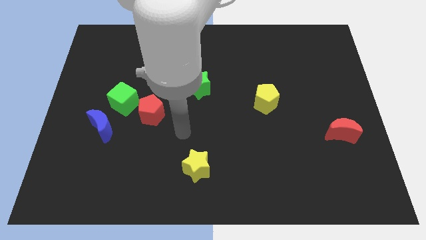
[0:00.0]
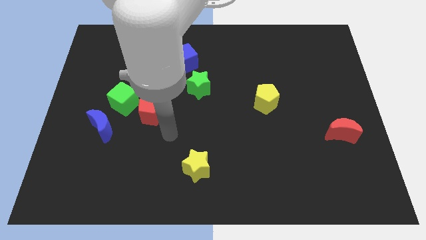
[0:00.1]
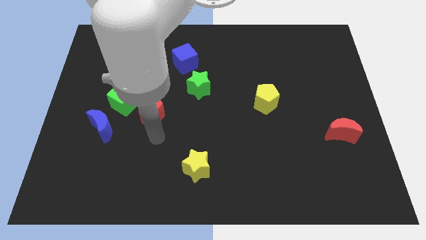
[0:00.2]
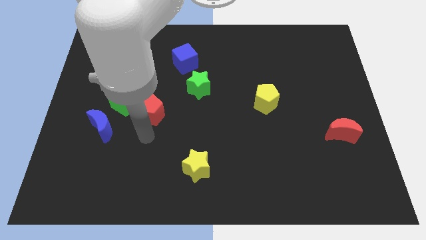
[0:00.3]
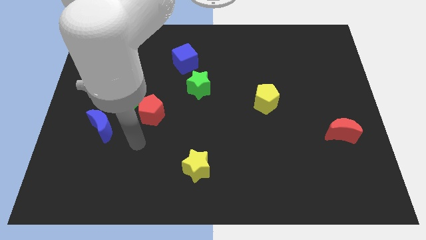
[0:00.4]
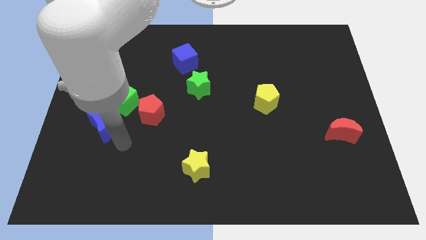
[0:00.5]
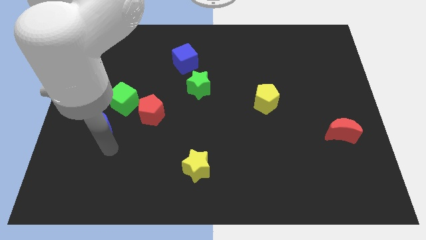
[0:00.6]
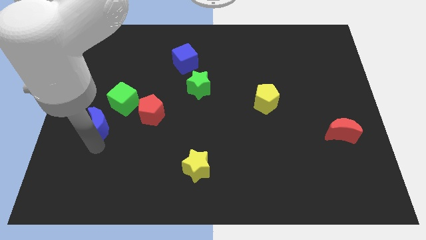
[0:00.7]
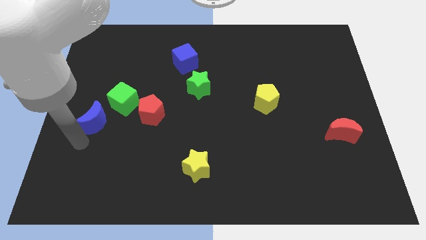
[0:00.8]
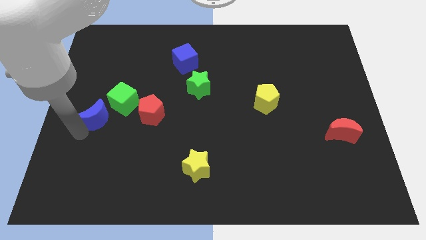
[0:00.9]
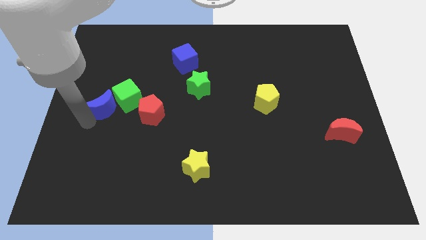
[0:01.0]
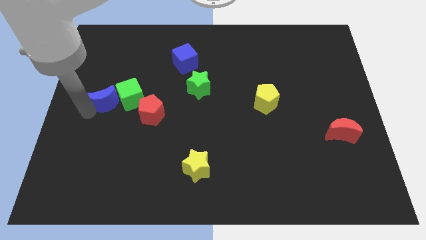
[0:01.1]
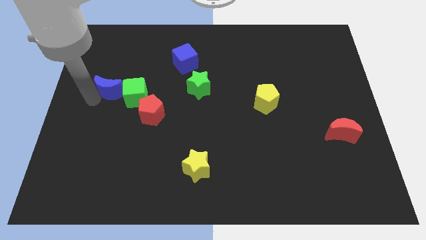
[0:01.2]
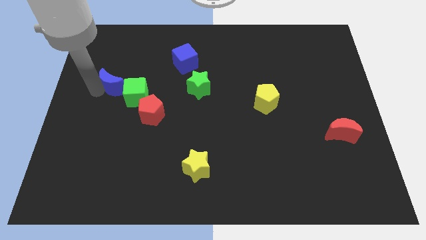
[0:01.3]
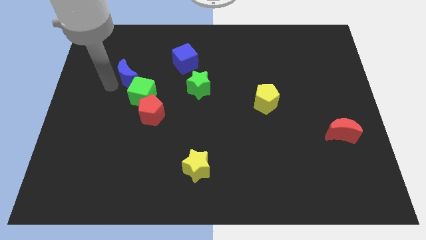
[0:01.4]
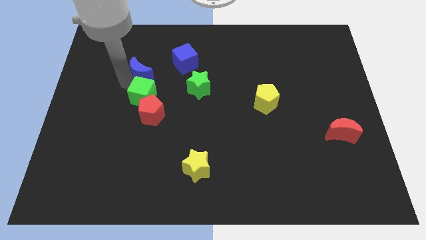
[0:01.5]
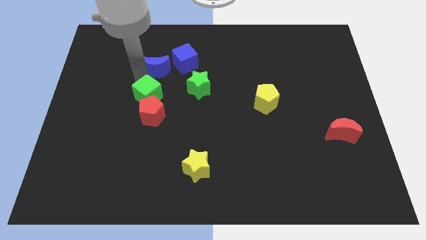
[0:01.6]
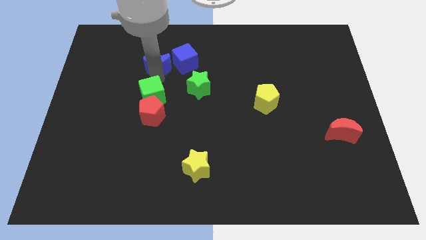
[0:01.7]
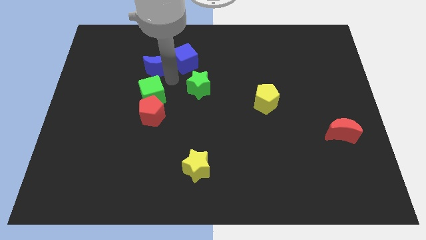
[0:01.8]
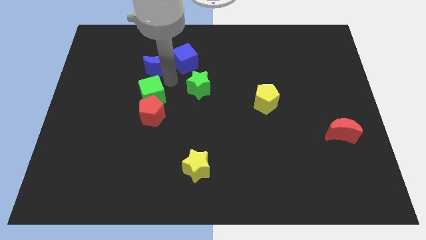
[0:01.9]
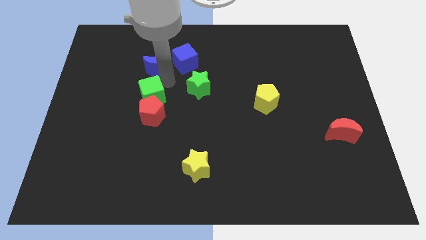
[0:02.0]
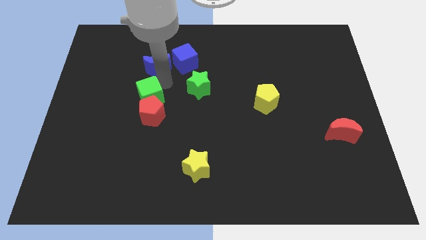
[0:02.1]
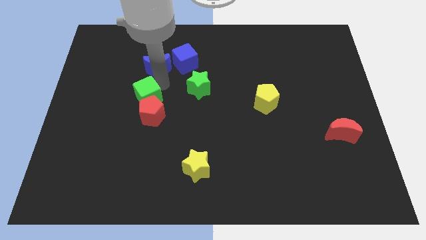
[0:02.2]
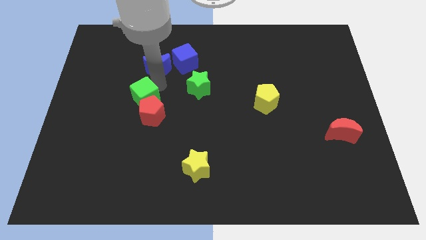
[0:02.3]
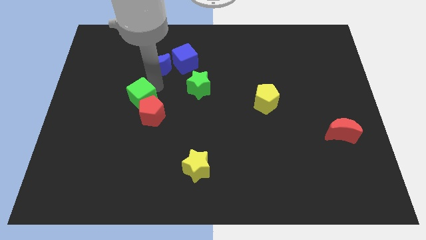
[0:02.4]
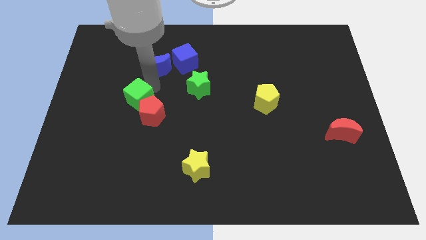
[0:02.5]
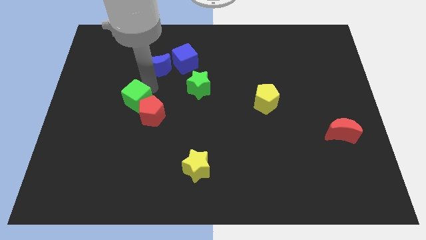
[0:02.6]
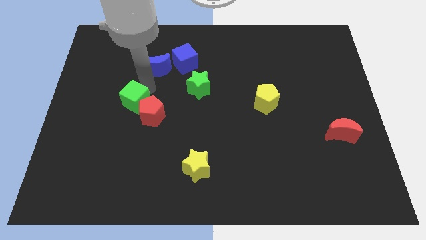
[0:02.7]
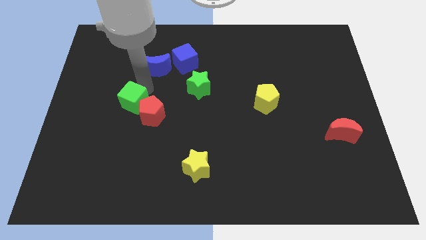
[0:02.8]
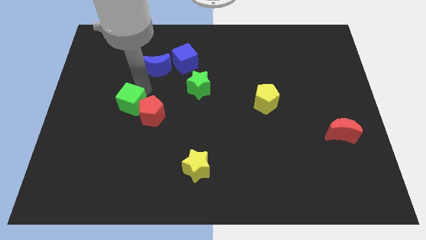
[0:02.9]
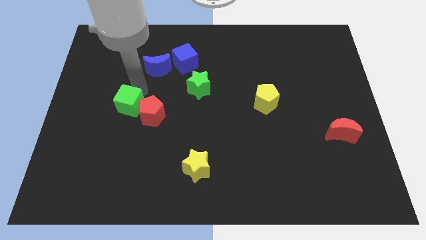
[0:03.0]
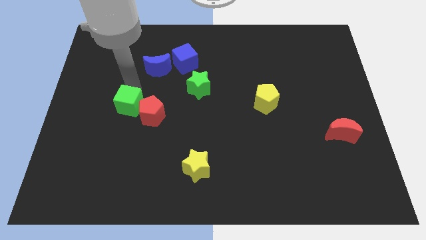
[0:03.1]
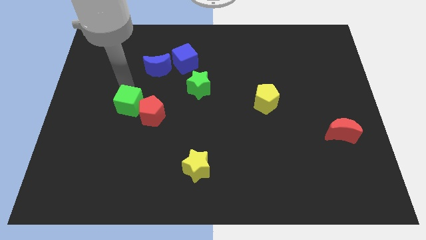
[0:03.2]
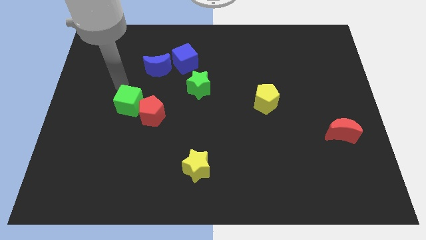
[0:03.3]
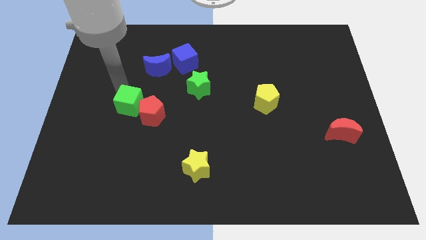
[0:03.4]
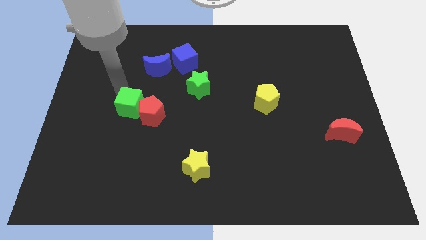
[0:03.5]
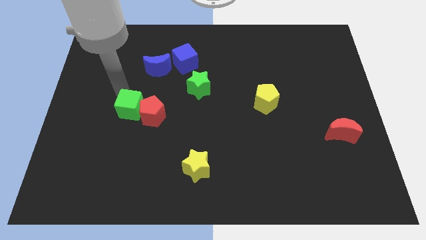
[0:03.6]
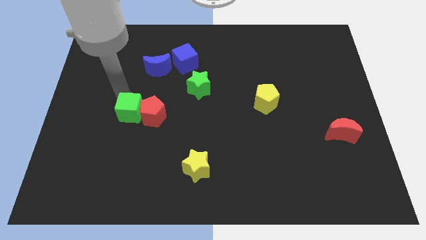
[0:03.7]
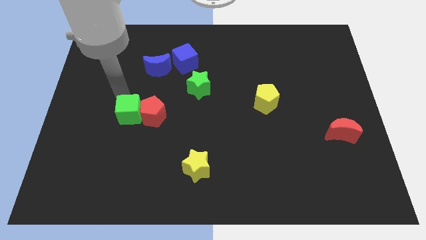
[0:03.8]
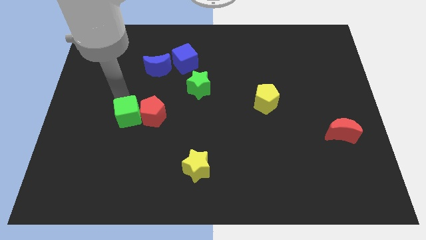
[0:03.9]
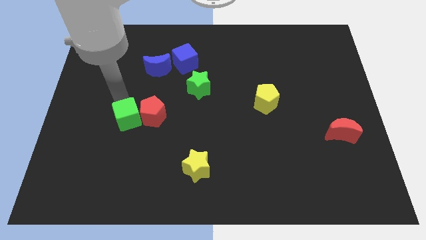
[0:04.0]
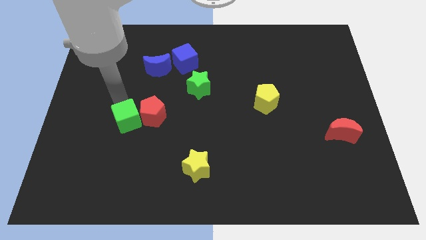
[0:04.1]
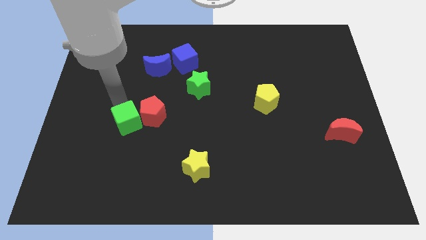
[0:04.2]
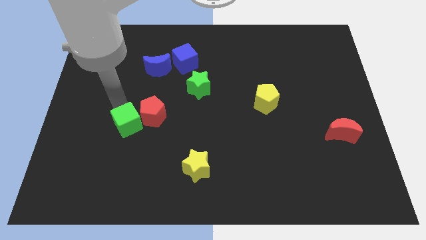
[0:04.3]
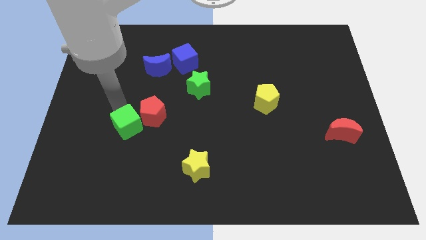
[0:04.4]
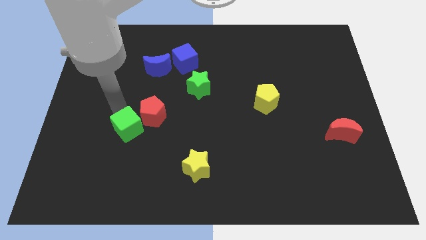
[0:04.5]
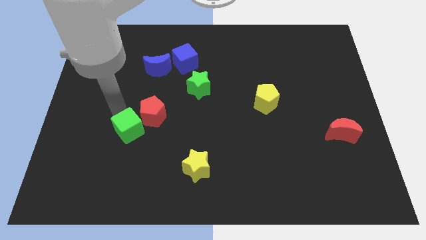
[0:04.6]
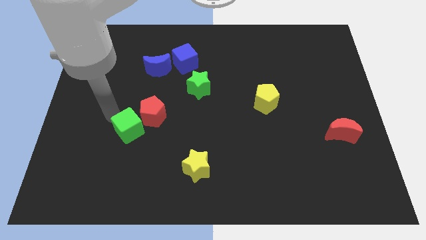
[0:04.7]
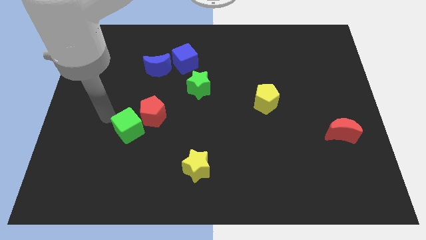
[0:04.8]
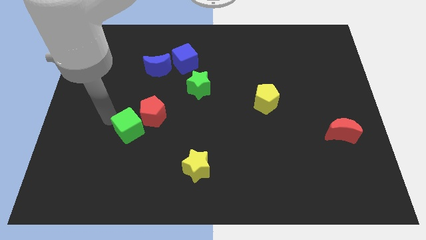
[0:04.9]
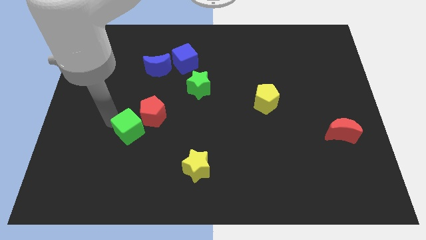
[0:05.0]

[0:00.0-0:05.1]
push the green cube down and to the right diagonally a bit

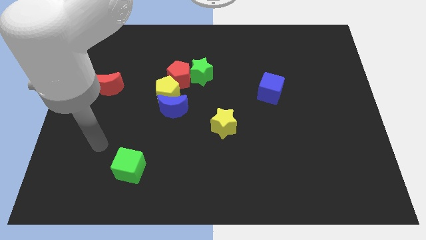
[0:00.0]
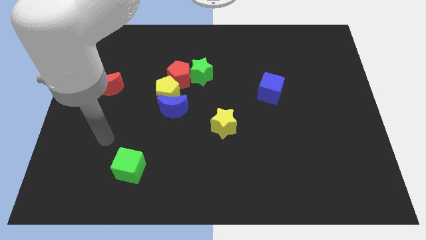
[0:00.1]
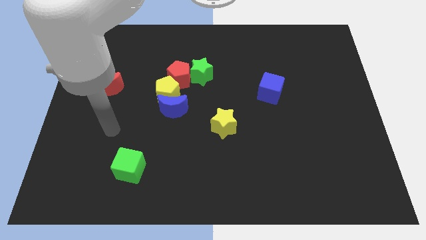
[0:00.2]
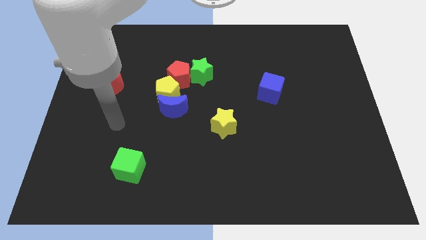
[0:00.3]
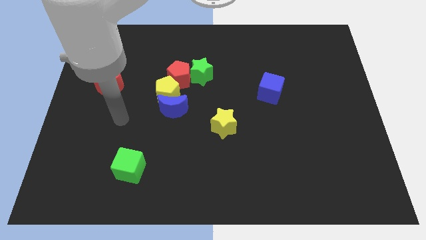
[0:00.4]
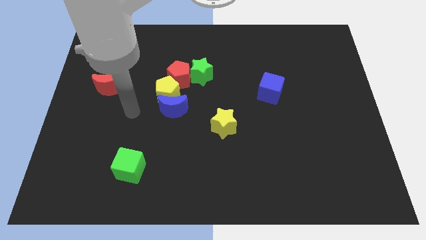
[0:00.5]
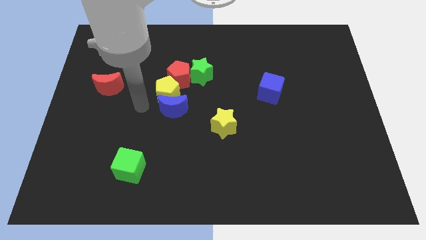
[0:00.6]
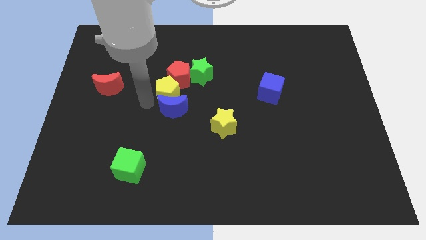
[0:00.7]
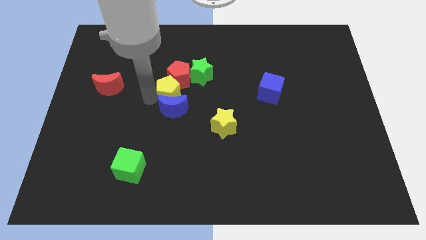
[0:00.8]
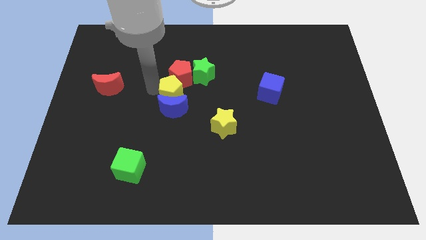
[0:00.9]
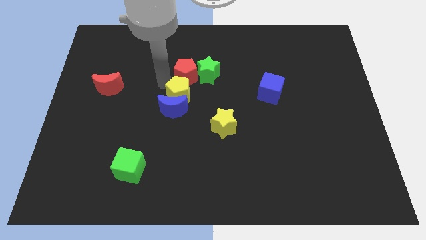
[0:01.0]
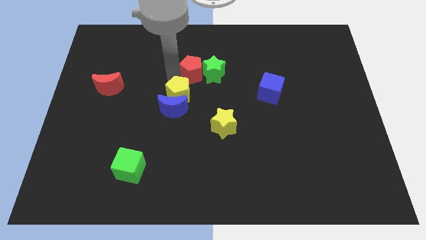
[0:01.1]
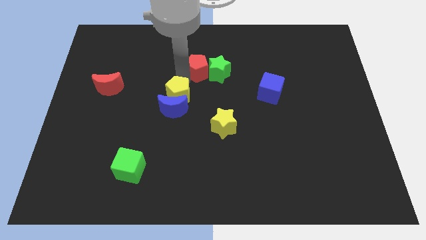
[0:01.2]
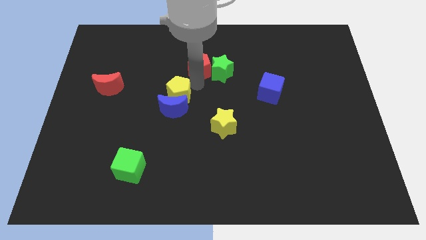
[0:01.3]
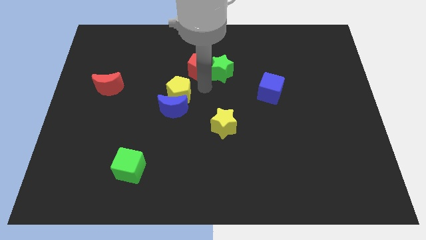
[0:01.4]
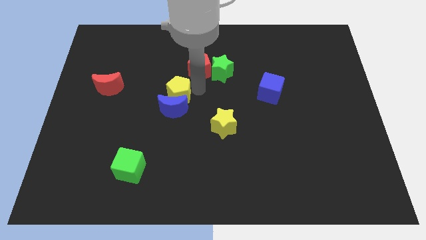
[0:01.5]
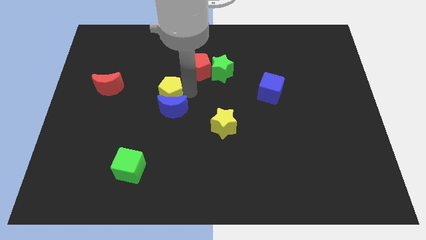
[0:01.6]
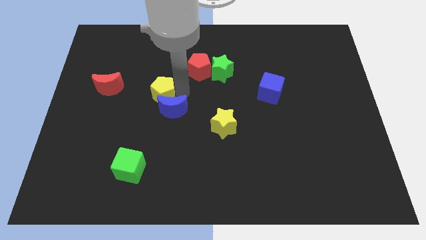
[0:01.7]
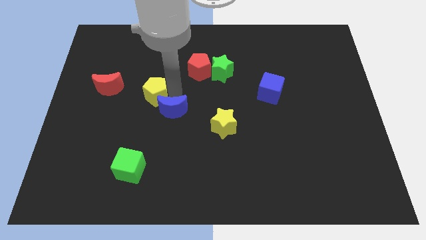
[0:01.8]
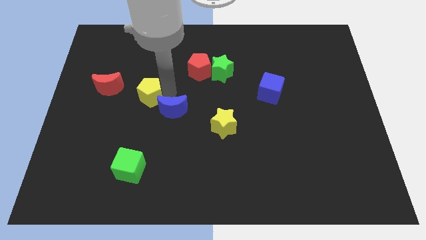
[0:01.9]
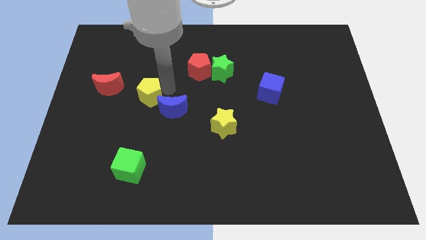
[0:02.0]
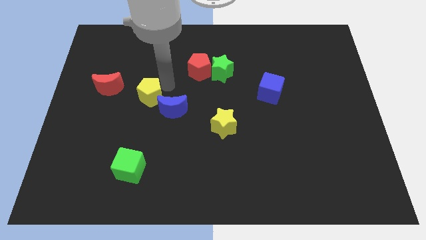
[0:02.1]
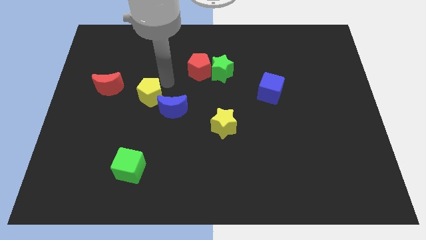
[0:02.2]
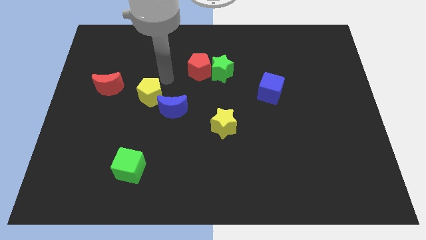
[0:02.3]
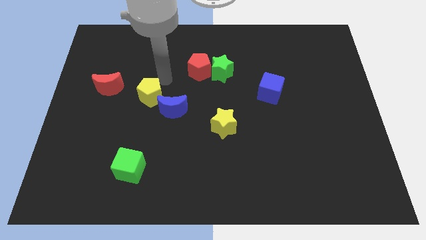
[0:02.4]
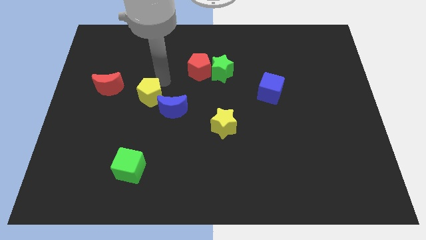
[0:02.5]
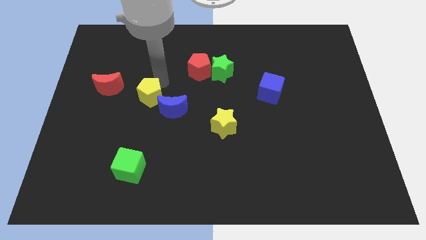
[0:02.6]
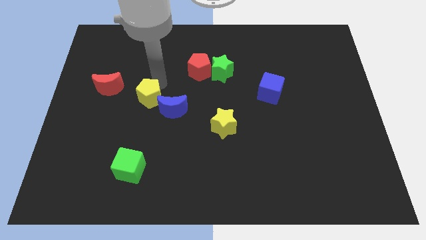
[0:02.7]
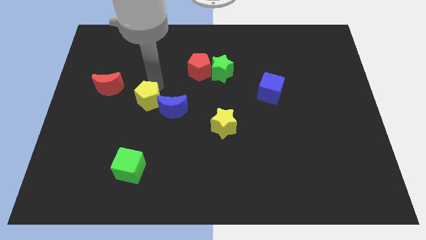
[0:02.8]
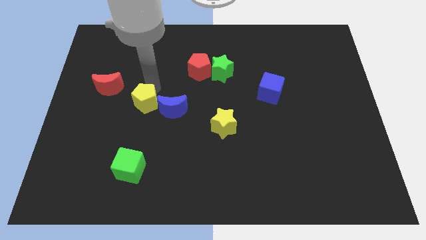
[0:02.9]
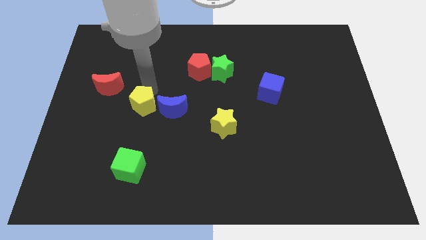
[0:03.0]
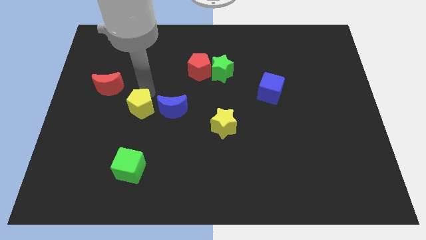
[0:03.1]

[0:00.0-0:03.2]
move the yellow pentagon a little bit downwards and to the left diagonally
